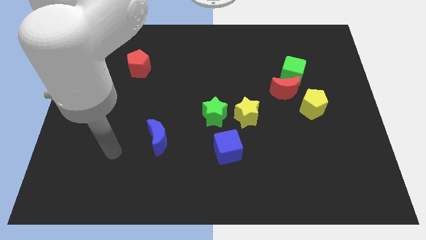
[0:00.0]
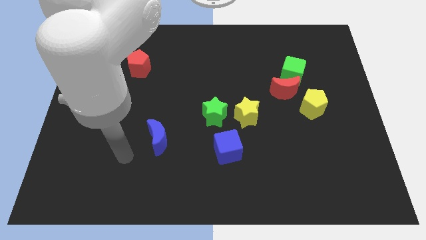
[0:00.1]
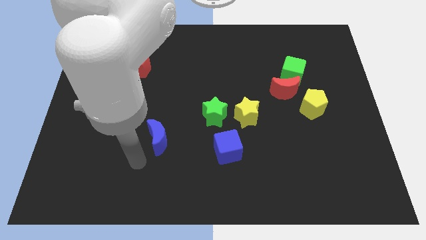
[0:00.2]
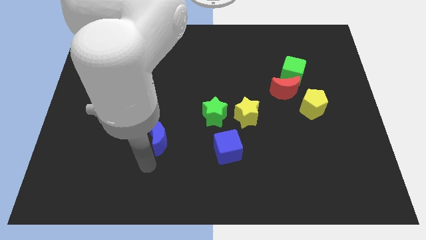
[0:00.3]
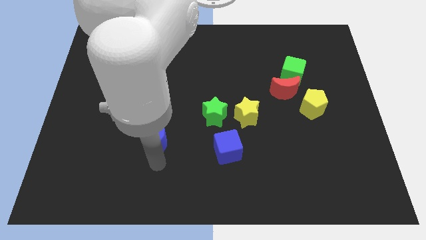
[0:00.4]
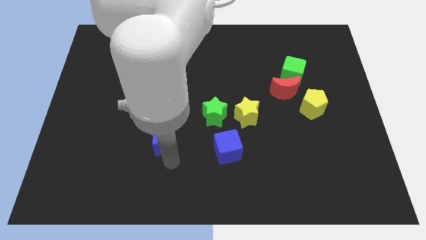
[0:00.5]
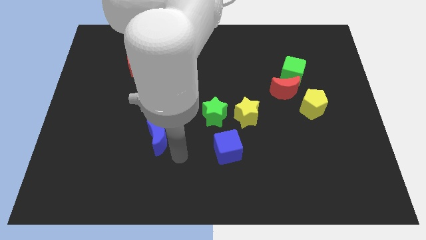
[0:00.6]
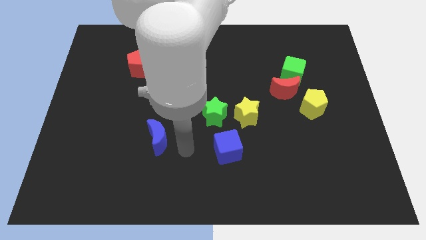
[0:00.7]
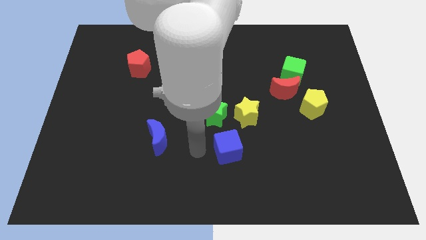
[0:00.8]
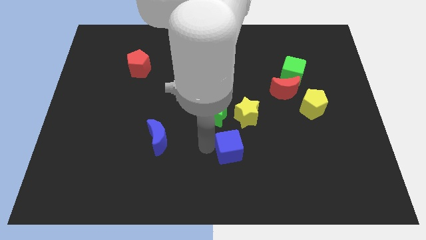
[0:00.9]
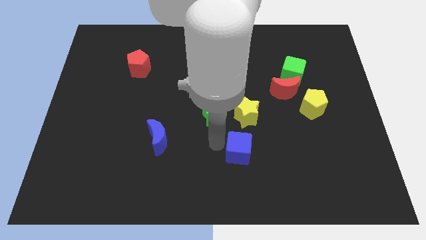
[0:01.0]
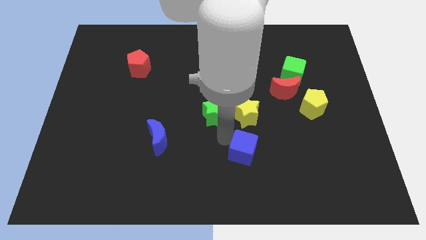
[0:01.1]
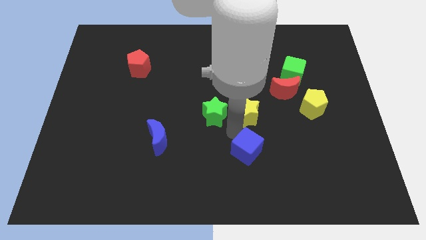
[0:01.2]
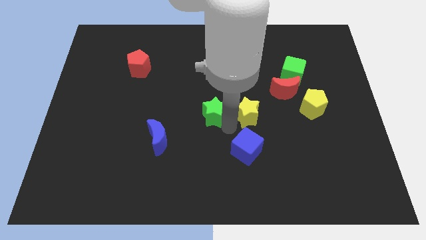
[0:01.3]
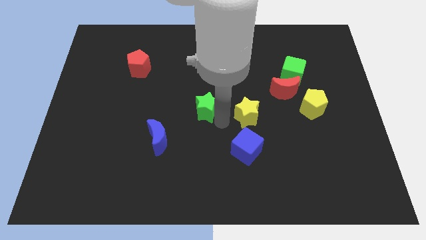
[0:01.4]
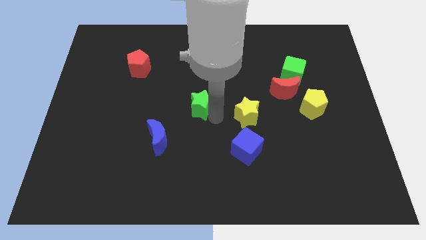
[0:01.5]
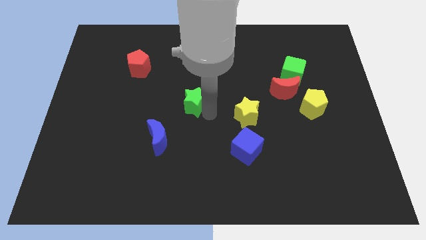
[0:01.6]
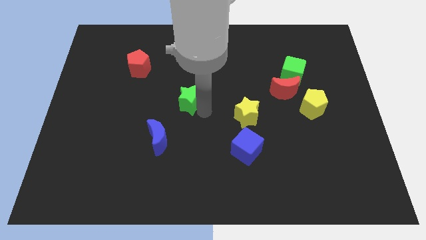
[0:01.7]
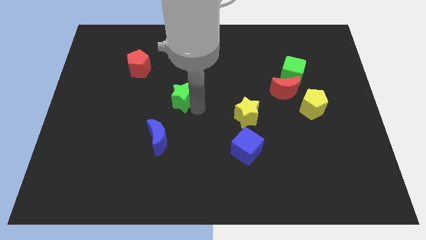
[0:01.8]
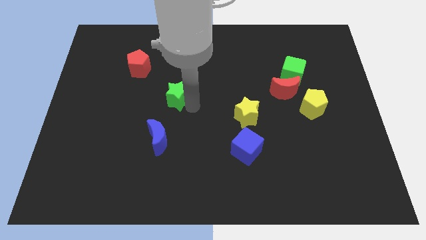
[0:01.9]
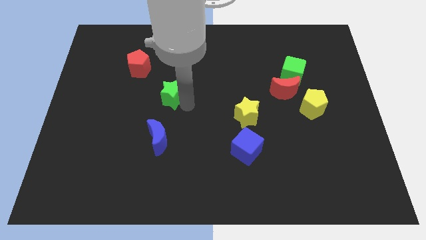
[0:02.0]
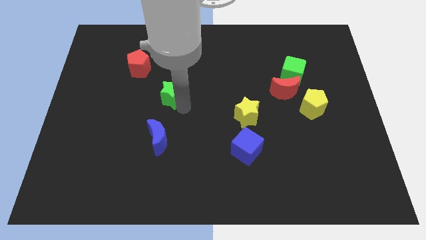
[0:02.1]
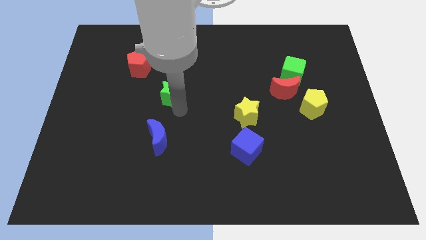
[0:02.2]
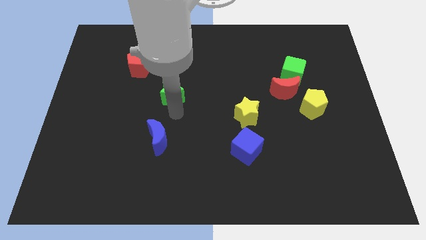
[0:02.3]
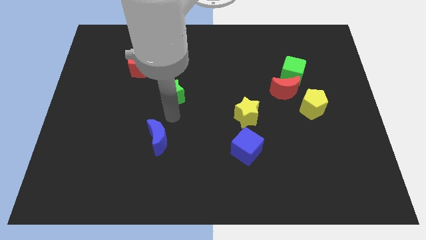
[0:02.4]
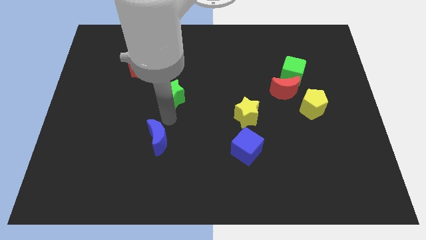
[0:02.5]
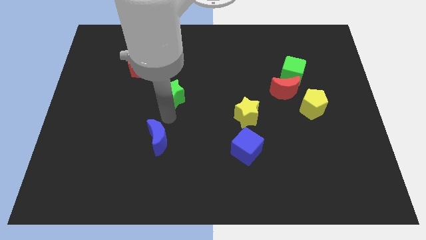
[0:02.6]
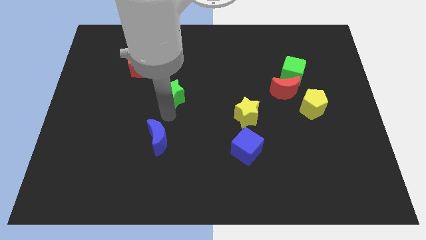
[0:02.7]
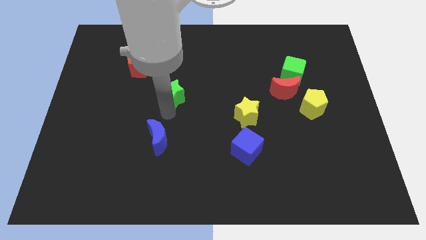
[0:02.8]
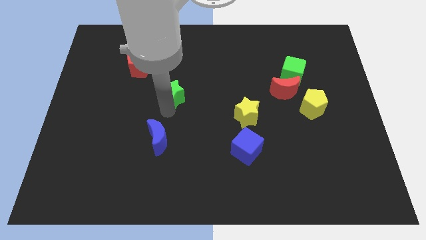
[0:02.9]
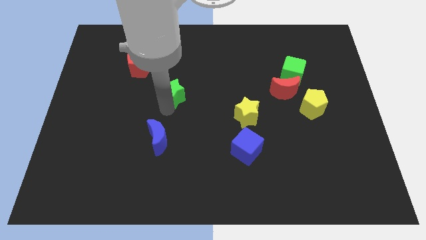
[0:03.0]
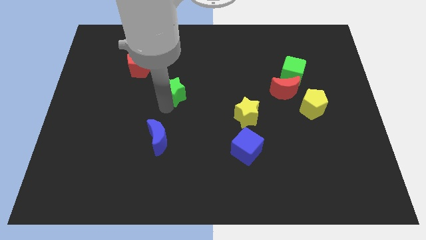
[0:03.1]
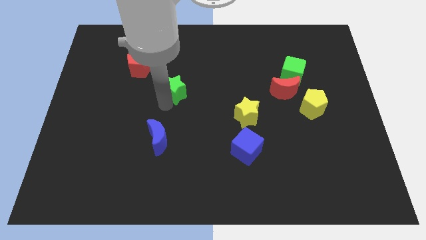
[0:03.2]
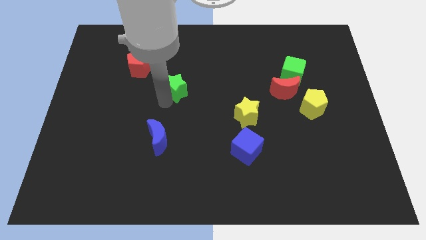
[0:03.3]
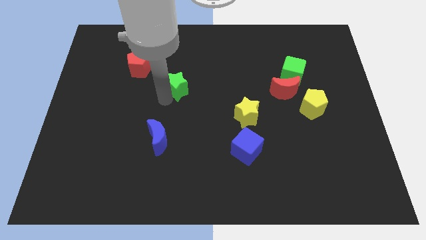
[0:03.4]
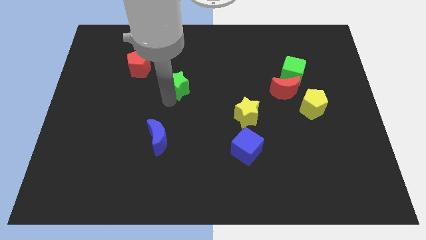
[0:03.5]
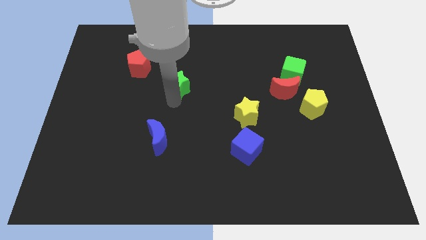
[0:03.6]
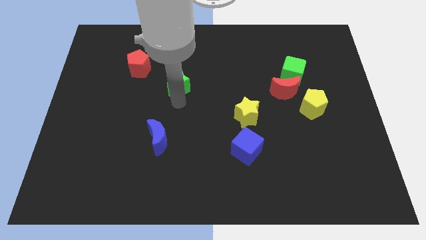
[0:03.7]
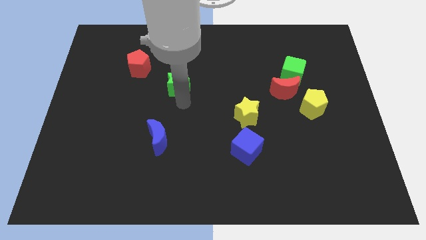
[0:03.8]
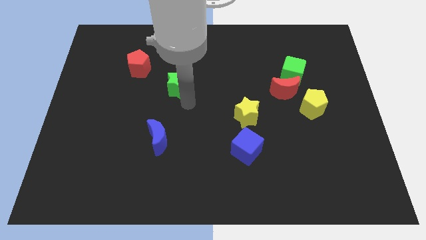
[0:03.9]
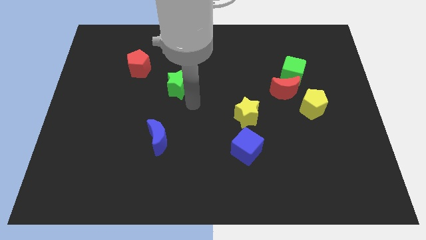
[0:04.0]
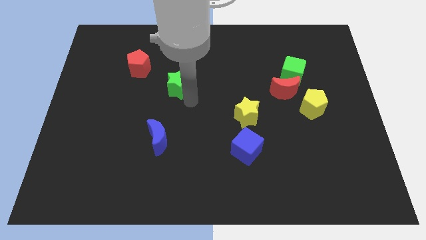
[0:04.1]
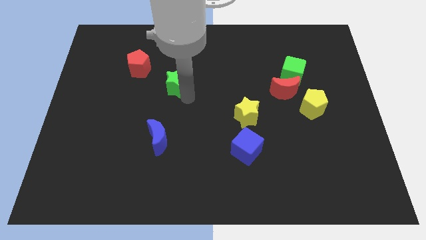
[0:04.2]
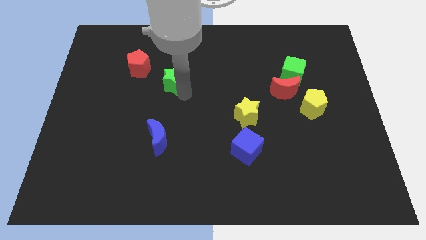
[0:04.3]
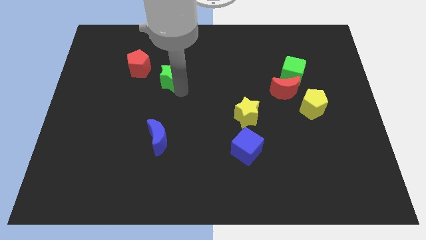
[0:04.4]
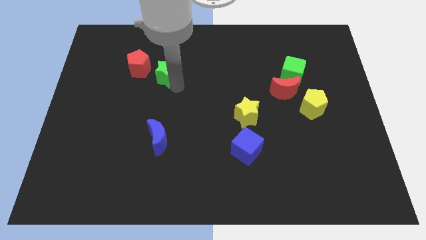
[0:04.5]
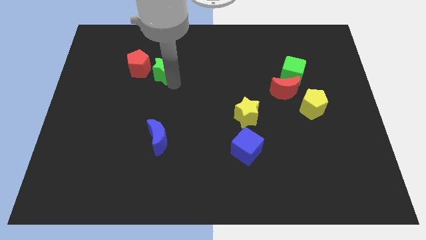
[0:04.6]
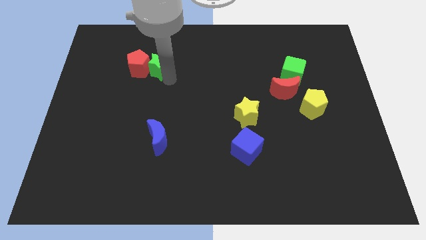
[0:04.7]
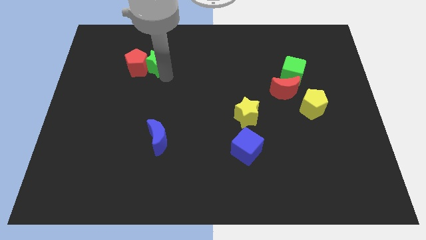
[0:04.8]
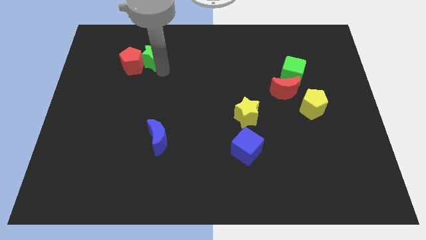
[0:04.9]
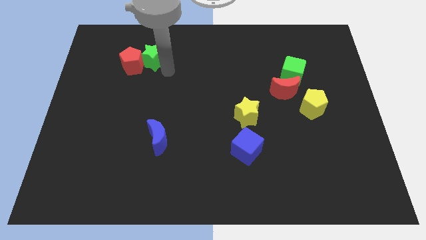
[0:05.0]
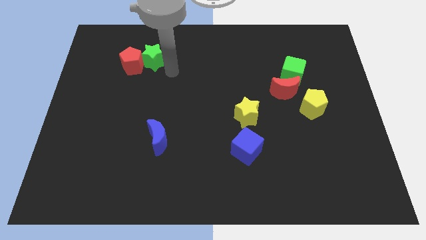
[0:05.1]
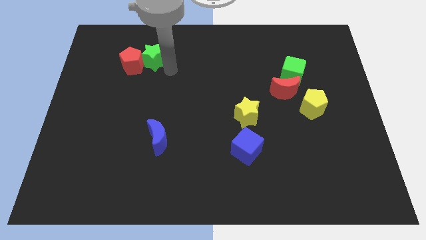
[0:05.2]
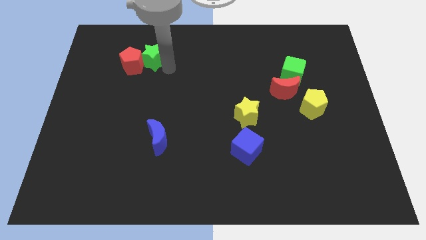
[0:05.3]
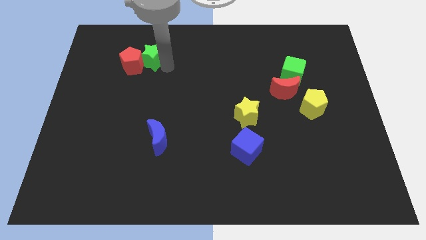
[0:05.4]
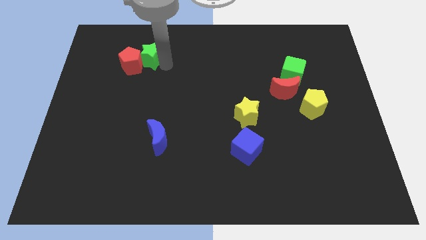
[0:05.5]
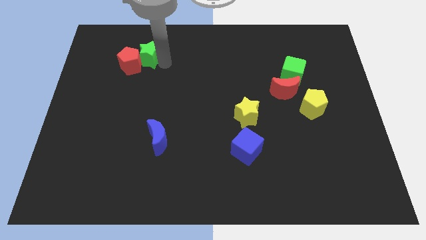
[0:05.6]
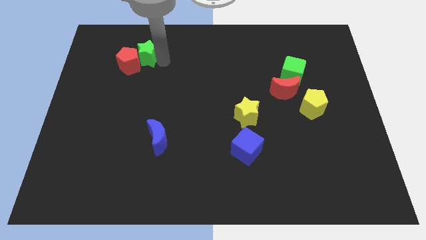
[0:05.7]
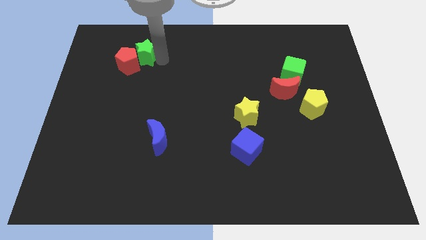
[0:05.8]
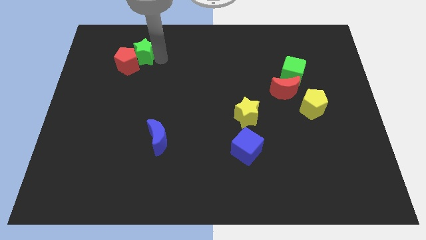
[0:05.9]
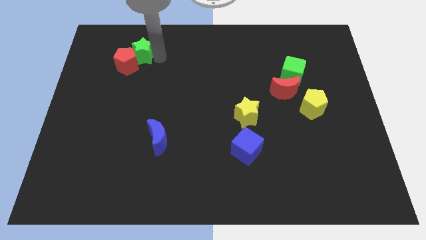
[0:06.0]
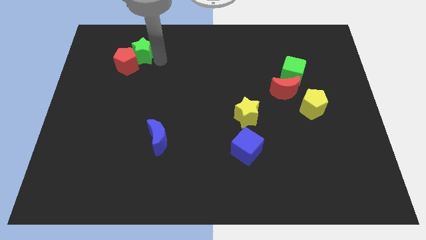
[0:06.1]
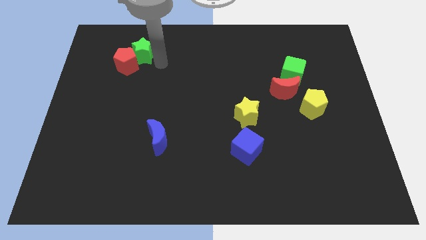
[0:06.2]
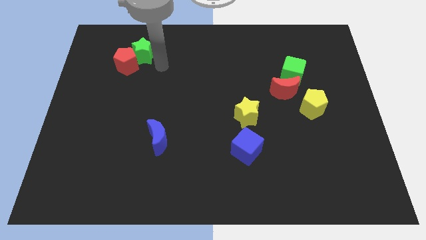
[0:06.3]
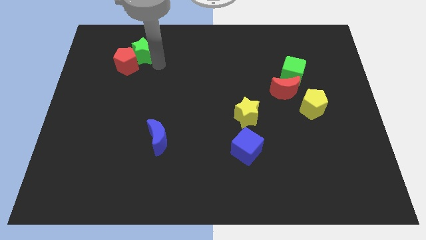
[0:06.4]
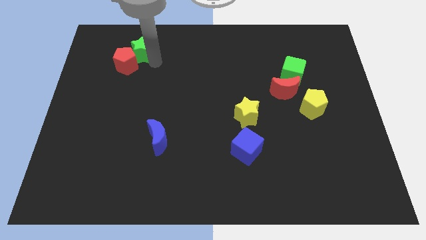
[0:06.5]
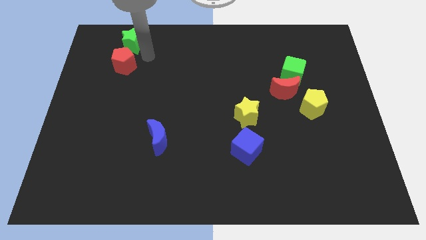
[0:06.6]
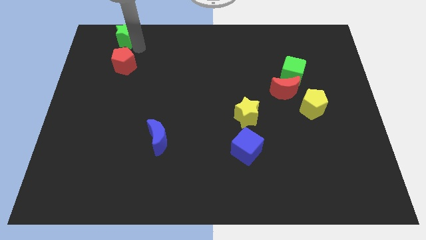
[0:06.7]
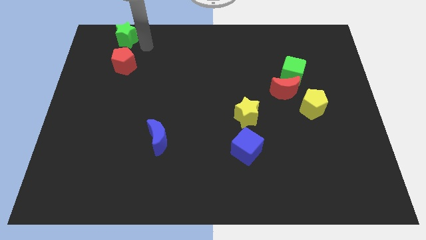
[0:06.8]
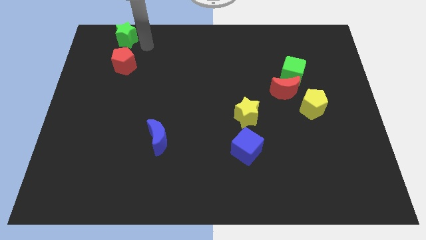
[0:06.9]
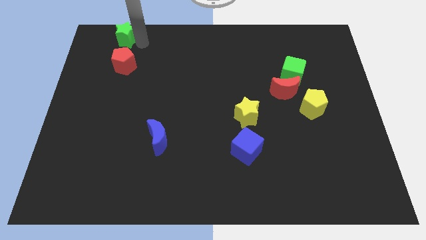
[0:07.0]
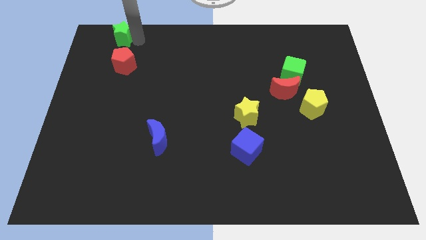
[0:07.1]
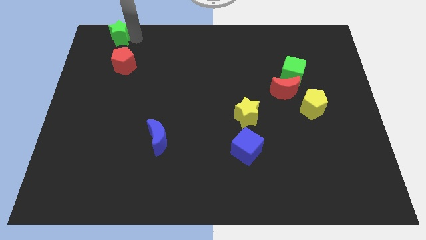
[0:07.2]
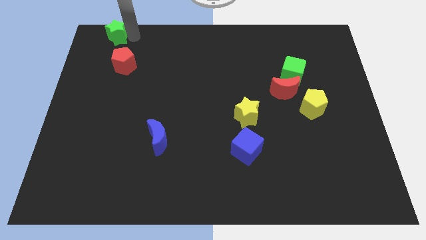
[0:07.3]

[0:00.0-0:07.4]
slide the green star to the top left corner
